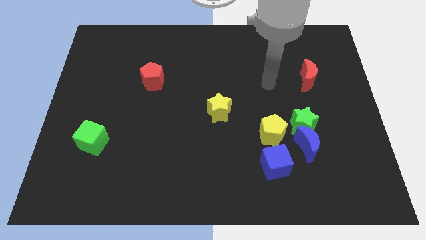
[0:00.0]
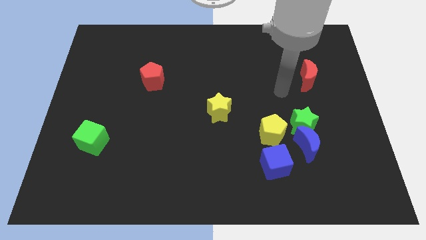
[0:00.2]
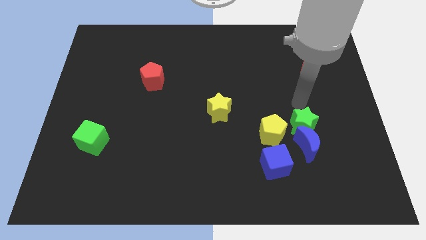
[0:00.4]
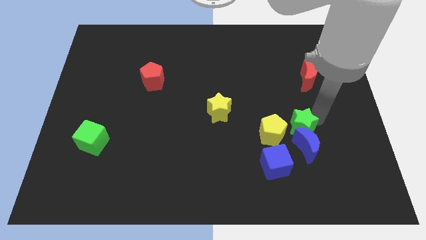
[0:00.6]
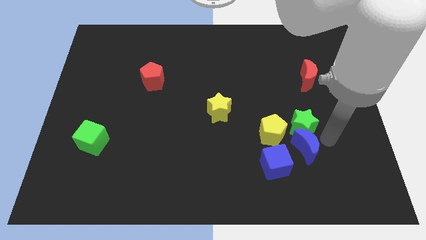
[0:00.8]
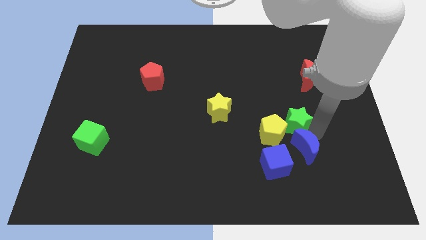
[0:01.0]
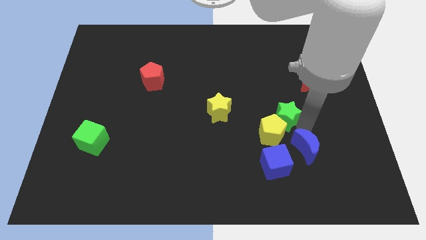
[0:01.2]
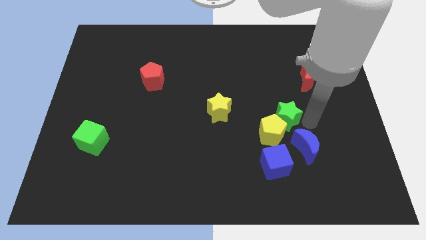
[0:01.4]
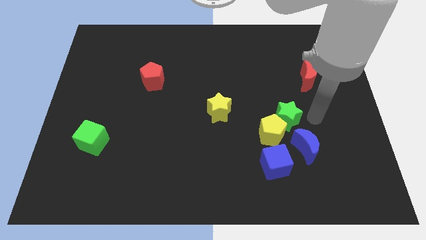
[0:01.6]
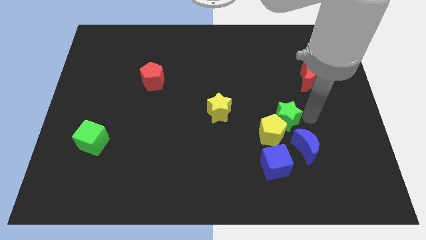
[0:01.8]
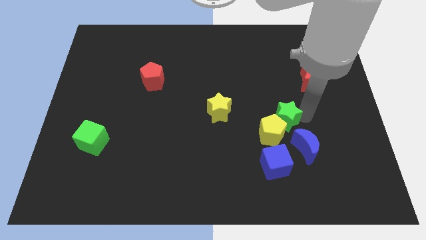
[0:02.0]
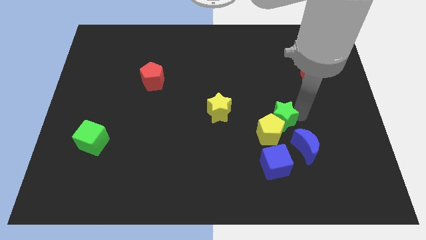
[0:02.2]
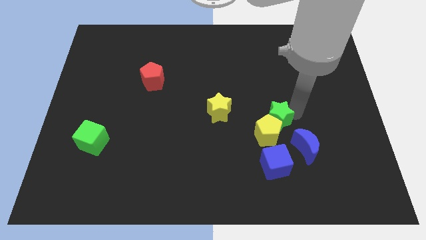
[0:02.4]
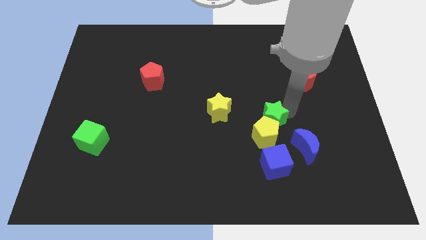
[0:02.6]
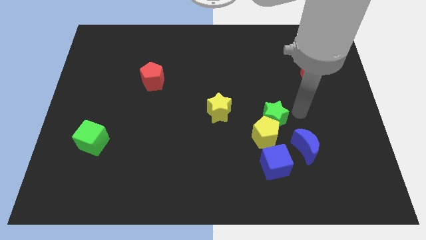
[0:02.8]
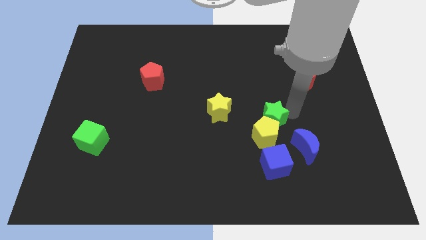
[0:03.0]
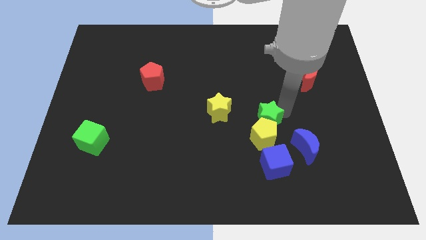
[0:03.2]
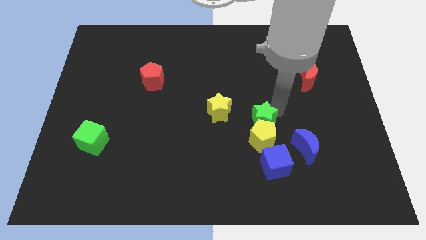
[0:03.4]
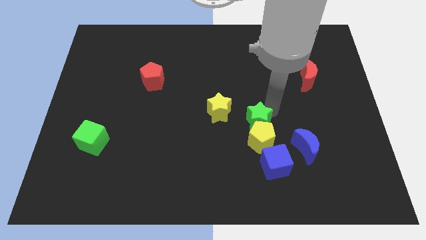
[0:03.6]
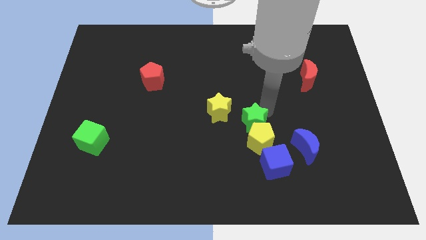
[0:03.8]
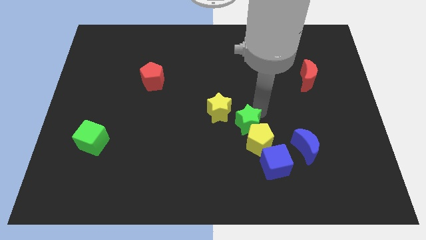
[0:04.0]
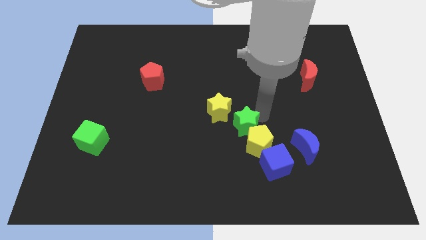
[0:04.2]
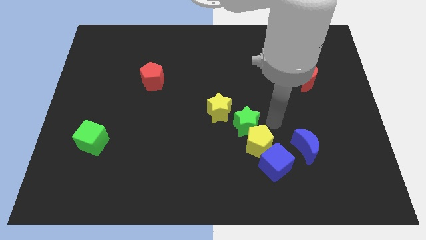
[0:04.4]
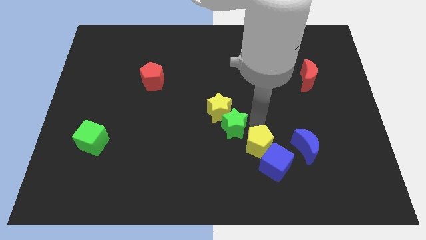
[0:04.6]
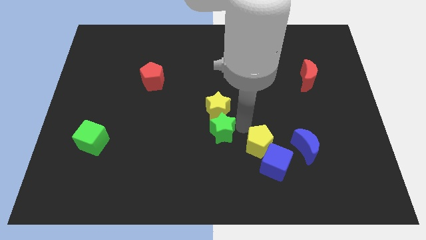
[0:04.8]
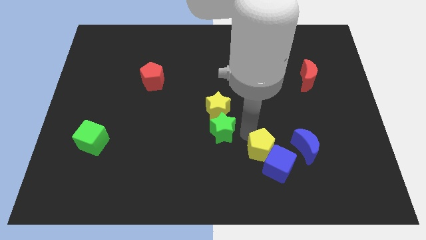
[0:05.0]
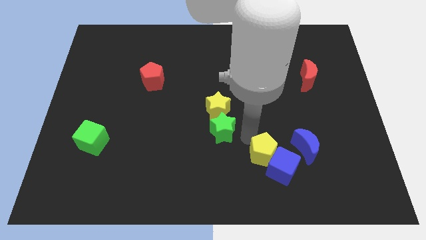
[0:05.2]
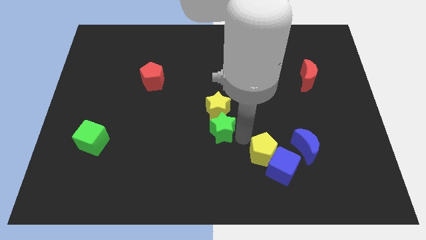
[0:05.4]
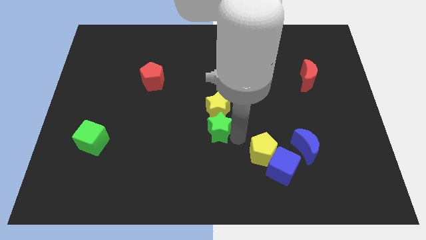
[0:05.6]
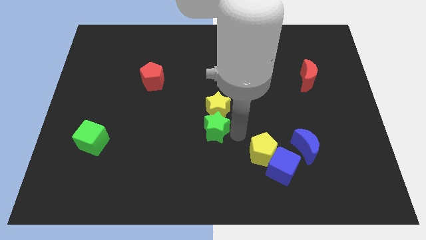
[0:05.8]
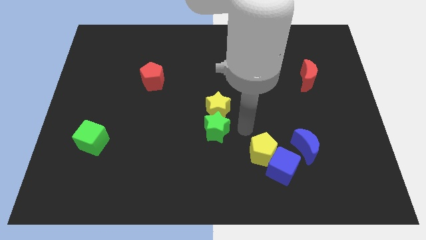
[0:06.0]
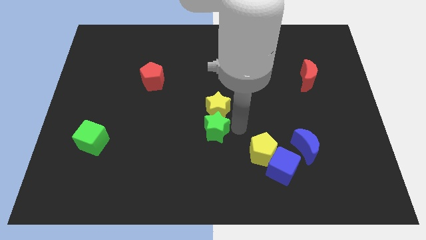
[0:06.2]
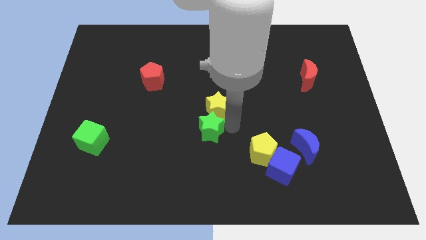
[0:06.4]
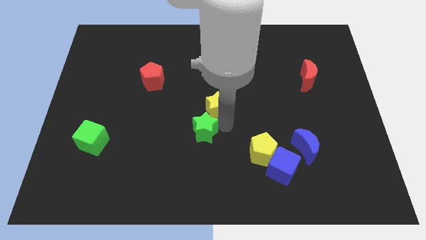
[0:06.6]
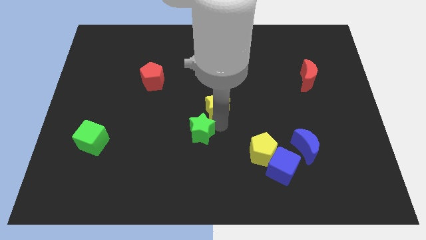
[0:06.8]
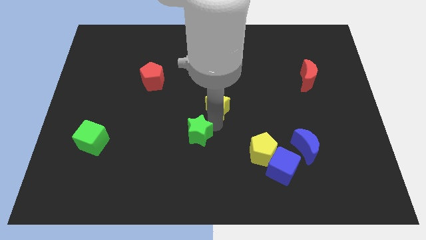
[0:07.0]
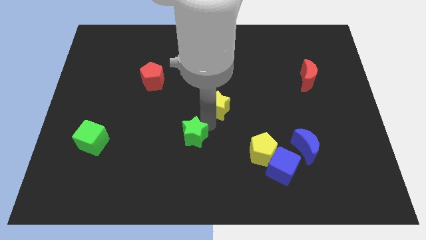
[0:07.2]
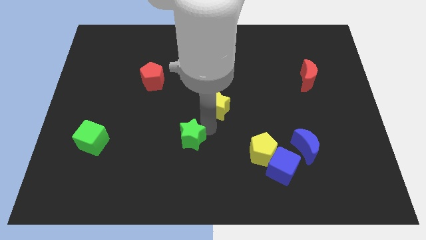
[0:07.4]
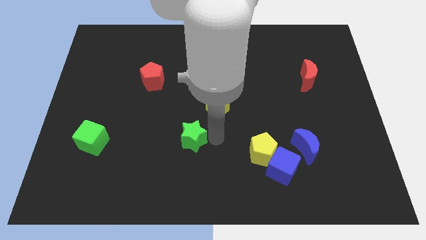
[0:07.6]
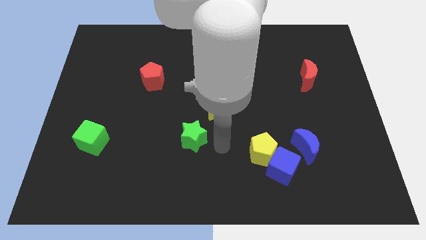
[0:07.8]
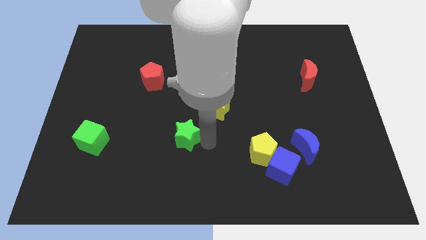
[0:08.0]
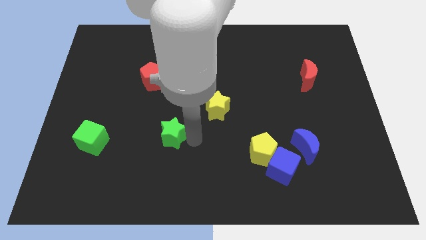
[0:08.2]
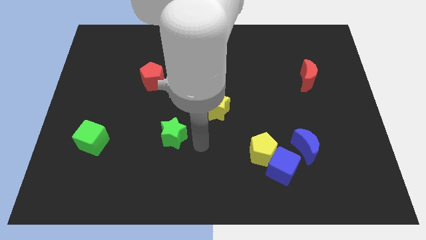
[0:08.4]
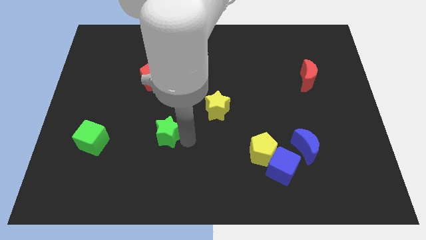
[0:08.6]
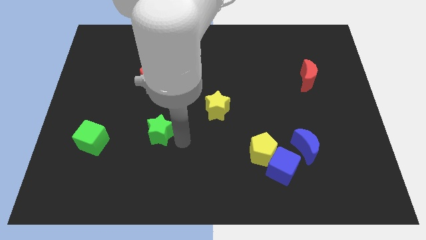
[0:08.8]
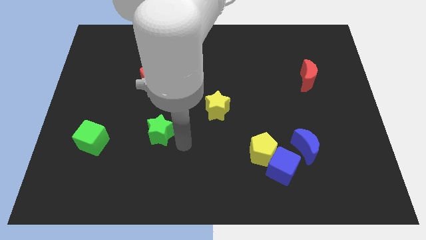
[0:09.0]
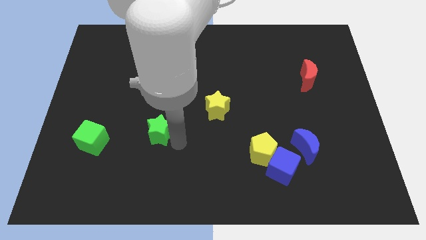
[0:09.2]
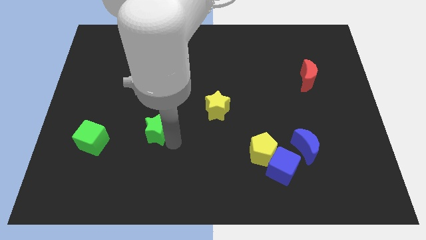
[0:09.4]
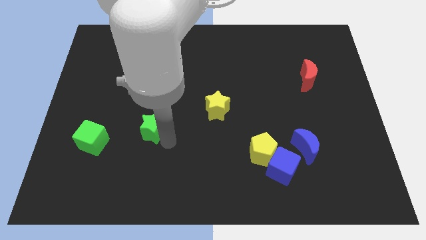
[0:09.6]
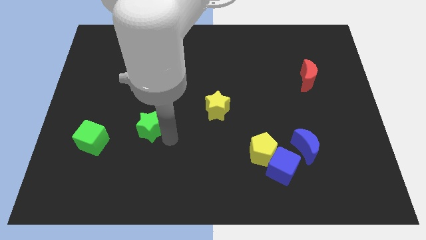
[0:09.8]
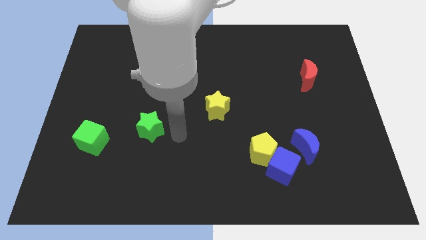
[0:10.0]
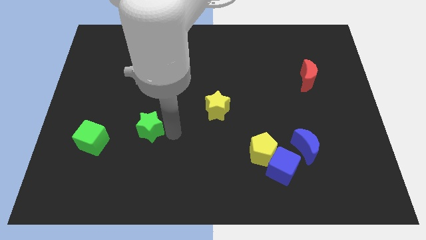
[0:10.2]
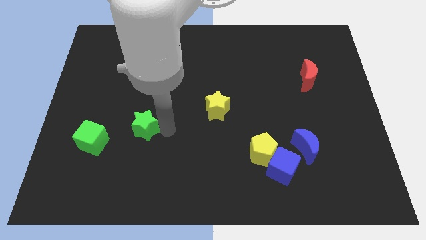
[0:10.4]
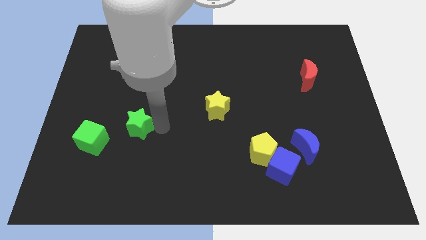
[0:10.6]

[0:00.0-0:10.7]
push the green star diagonally up and to the right of the green cube

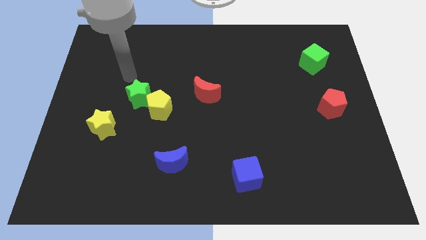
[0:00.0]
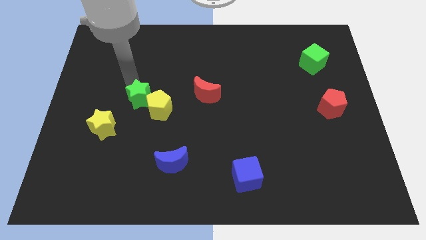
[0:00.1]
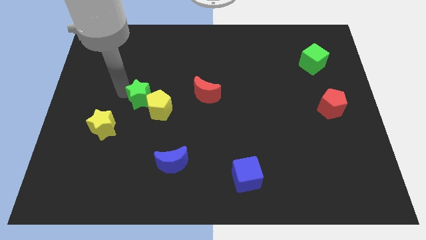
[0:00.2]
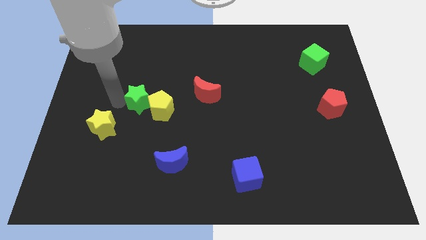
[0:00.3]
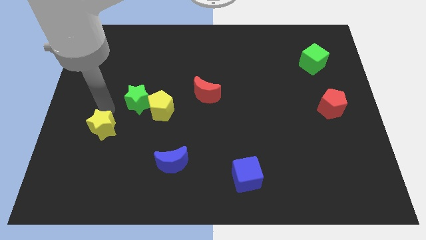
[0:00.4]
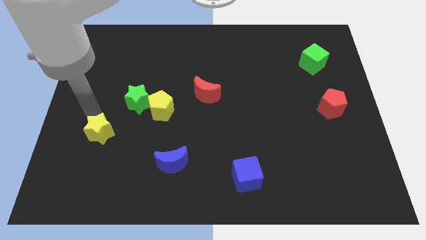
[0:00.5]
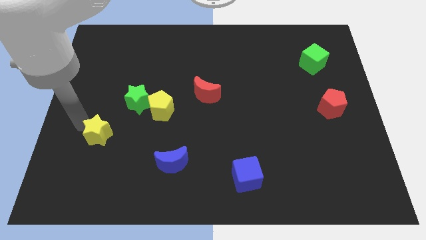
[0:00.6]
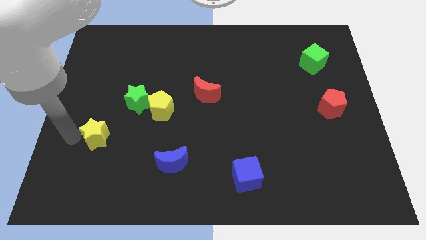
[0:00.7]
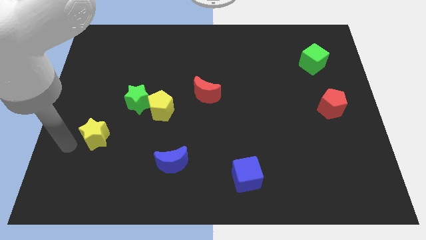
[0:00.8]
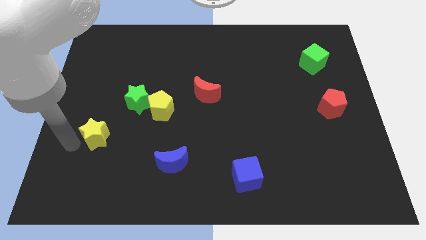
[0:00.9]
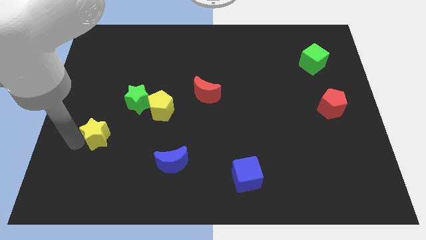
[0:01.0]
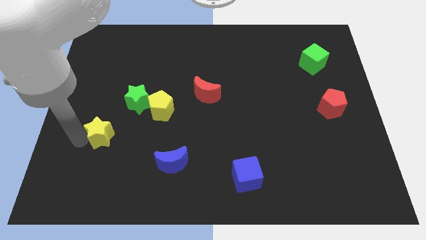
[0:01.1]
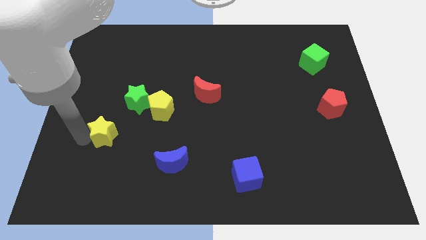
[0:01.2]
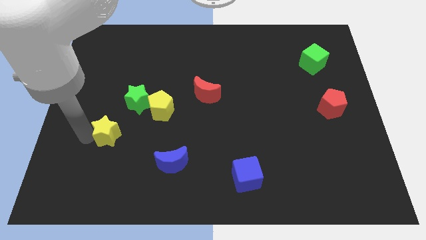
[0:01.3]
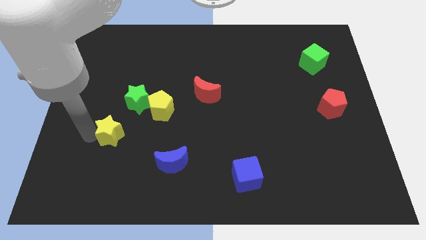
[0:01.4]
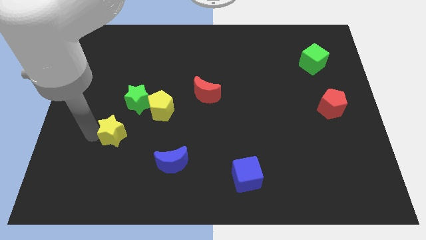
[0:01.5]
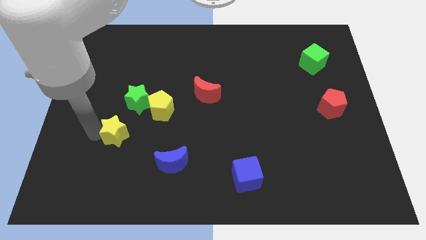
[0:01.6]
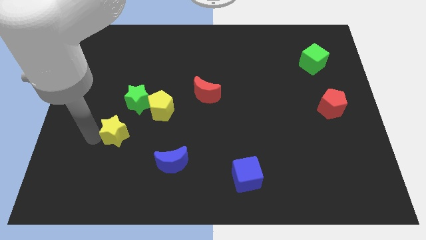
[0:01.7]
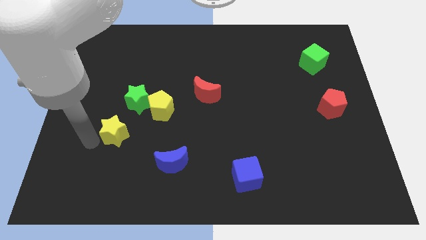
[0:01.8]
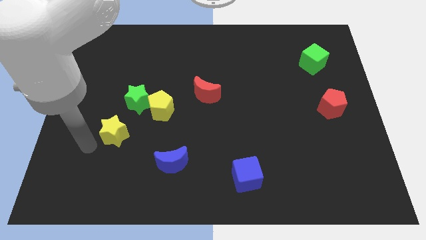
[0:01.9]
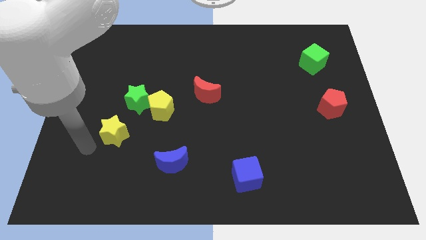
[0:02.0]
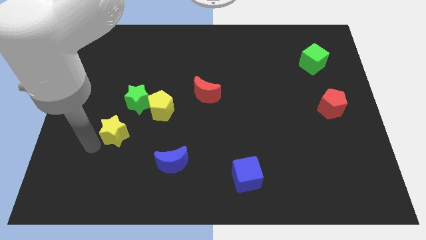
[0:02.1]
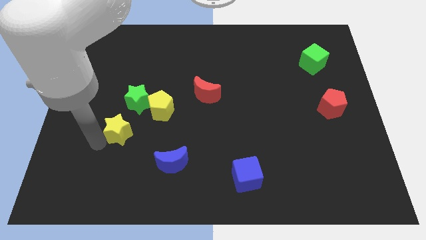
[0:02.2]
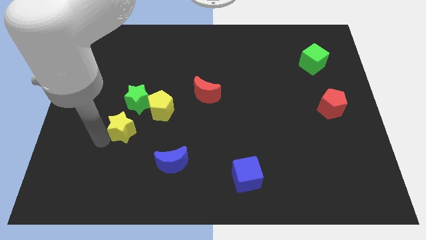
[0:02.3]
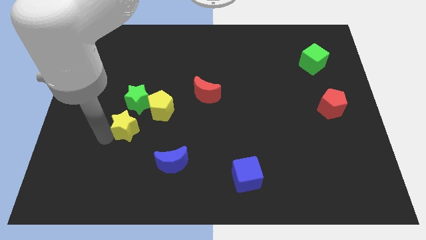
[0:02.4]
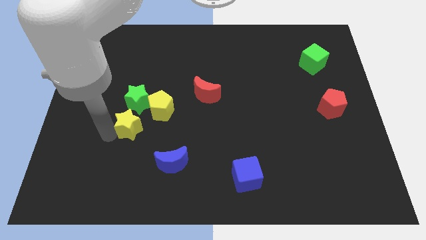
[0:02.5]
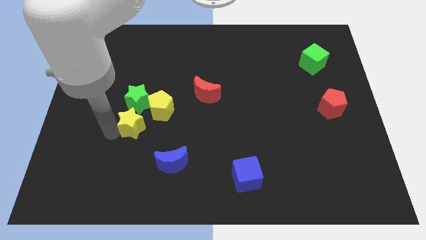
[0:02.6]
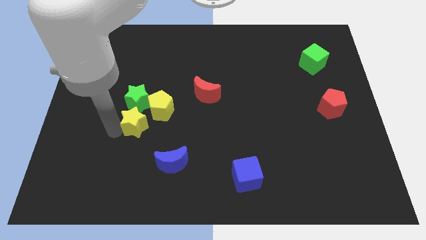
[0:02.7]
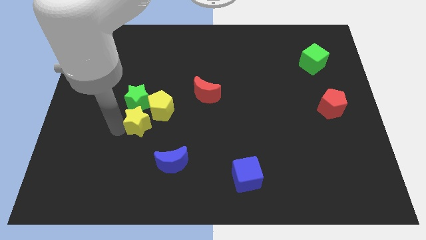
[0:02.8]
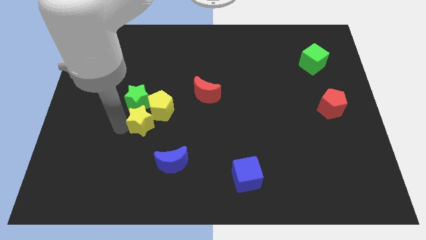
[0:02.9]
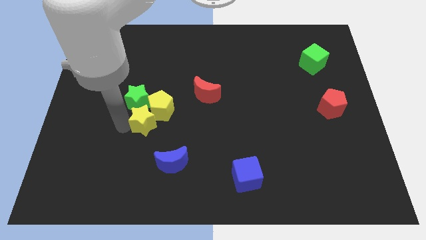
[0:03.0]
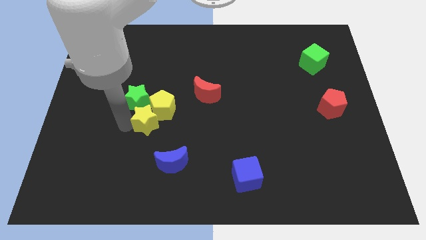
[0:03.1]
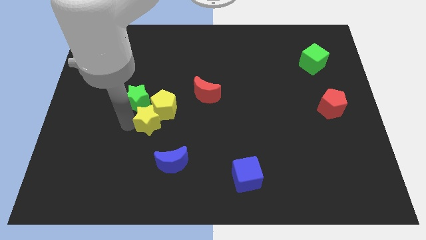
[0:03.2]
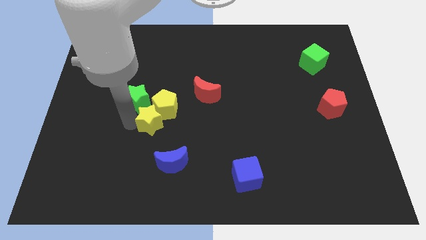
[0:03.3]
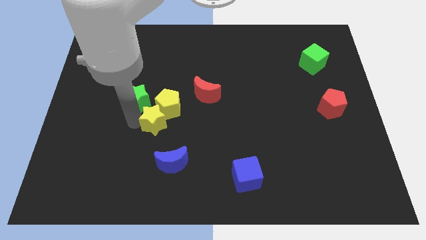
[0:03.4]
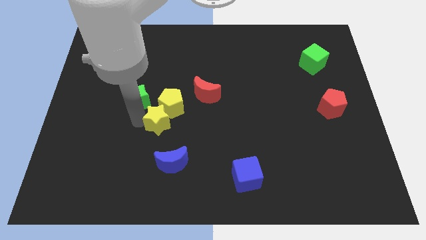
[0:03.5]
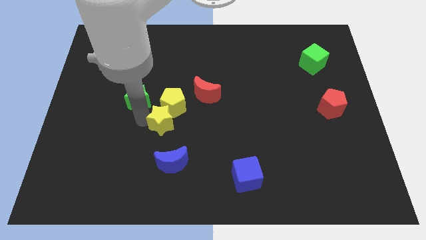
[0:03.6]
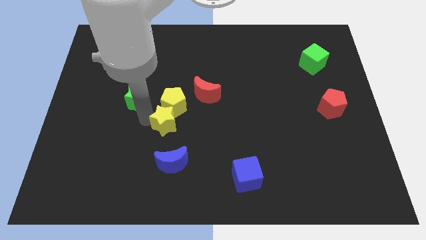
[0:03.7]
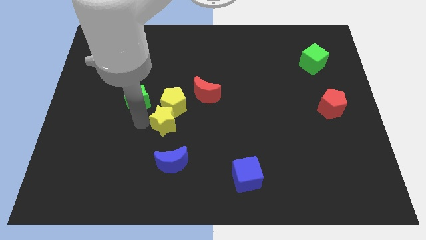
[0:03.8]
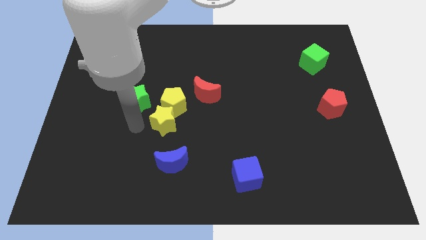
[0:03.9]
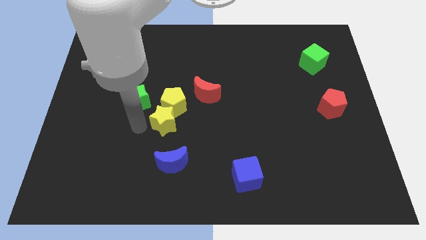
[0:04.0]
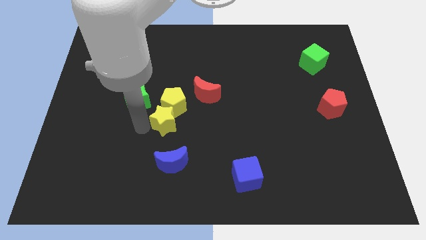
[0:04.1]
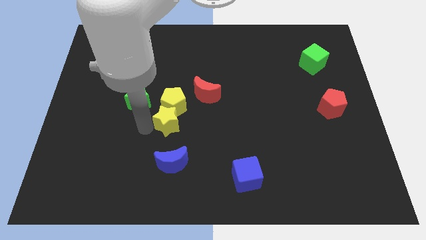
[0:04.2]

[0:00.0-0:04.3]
push the yellow star to the bottom right side of the yellow pentagon
